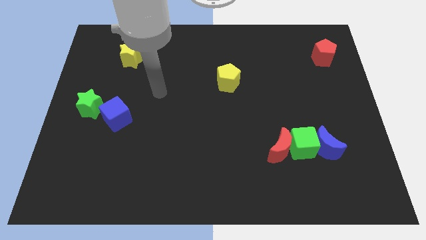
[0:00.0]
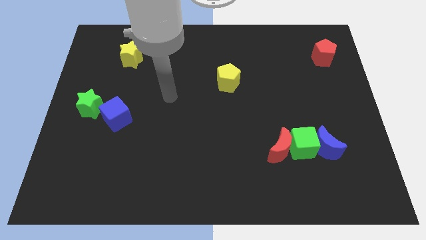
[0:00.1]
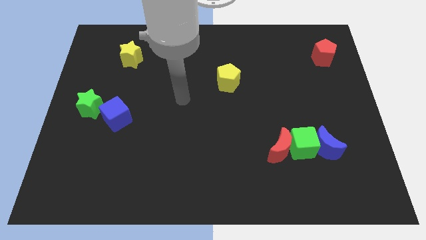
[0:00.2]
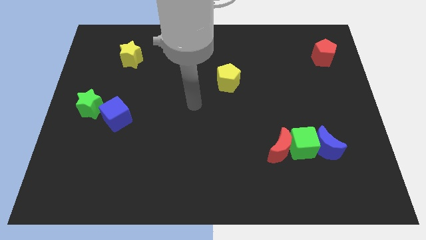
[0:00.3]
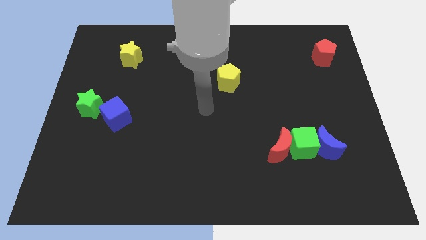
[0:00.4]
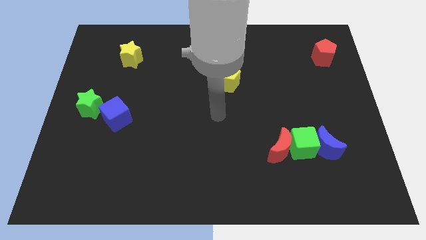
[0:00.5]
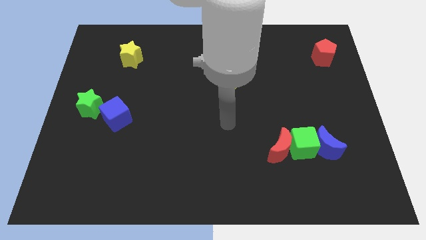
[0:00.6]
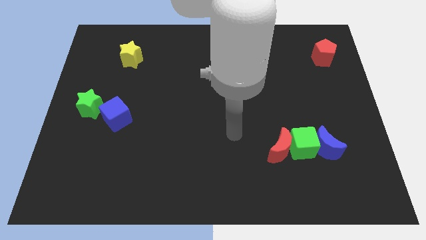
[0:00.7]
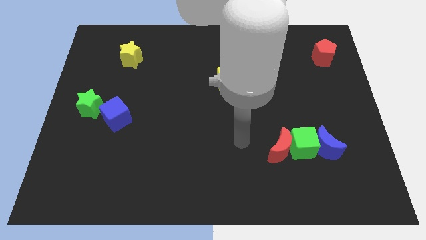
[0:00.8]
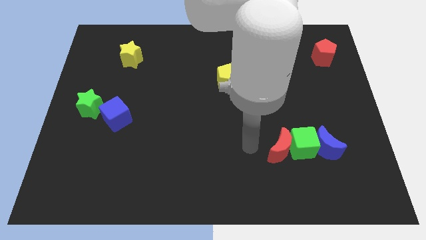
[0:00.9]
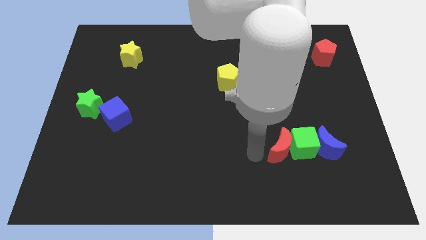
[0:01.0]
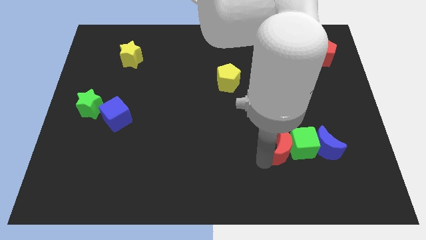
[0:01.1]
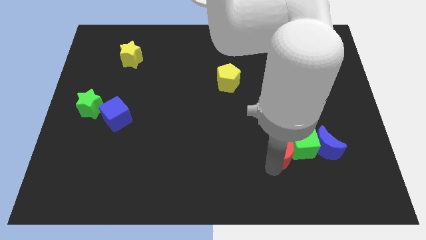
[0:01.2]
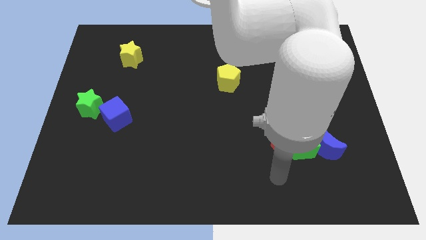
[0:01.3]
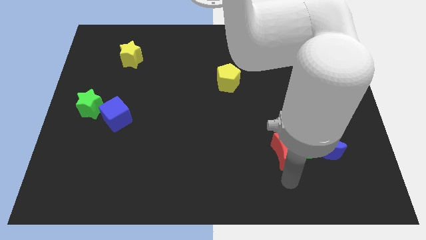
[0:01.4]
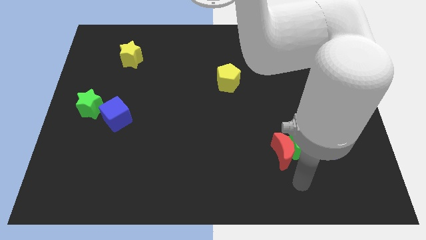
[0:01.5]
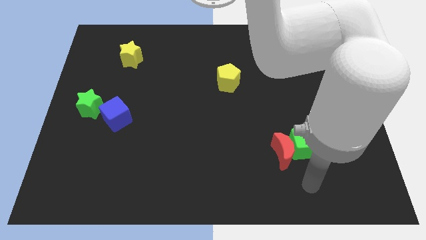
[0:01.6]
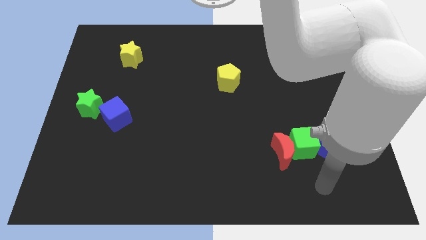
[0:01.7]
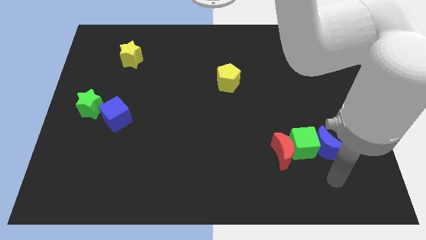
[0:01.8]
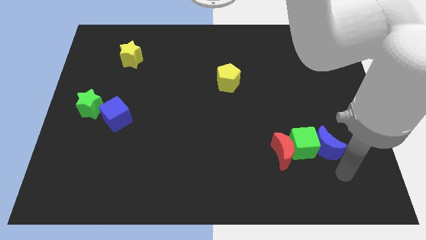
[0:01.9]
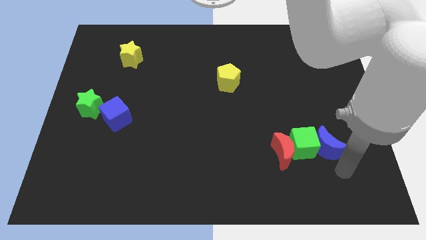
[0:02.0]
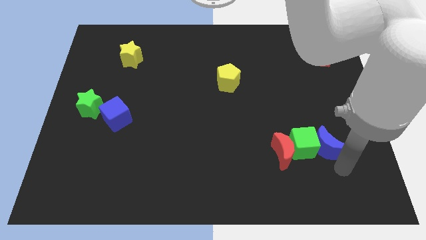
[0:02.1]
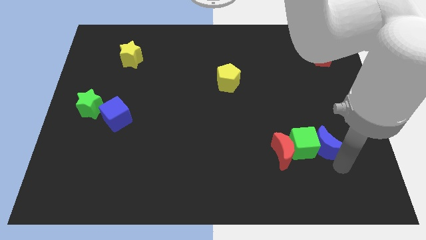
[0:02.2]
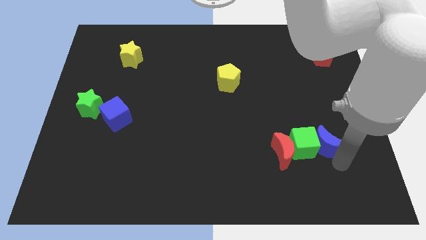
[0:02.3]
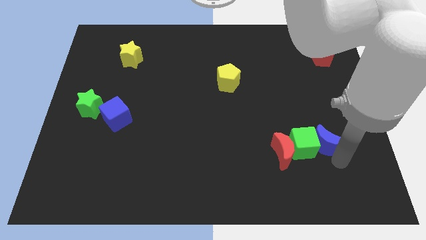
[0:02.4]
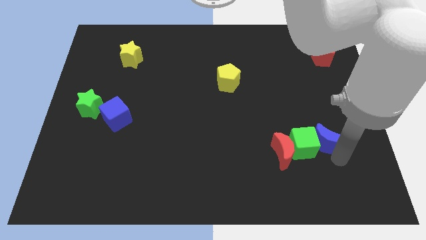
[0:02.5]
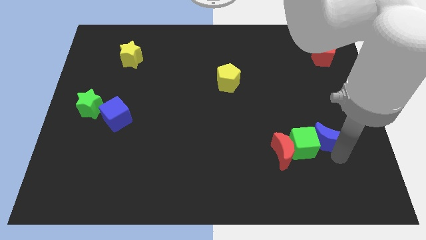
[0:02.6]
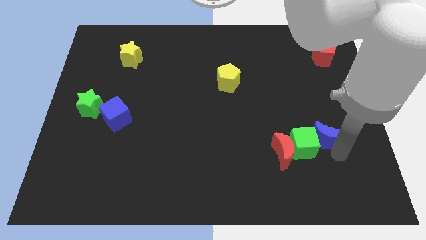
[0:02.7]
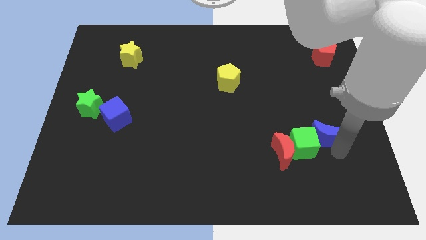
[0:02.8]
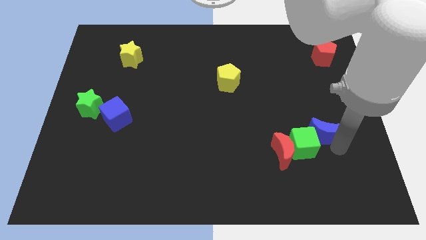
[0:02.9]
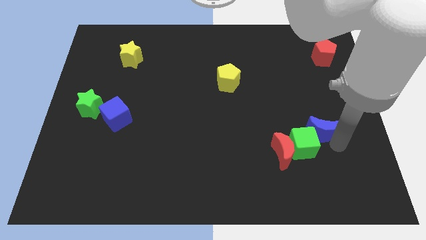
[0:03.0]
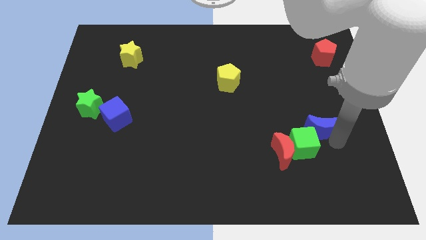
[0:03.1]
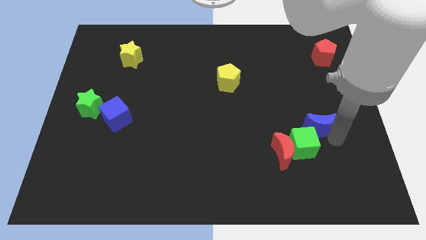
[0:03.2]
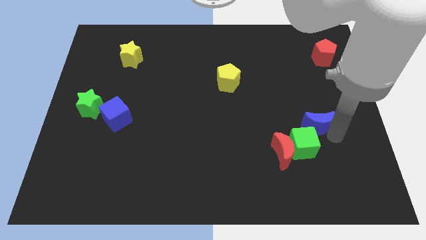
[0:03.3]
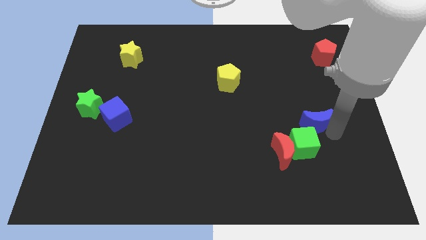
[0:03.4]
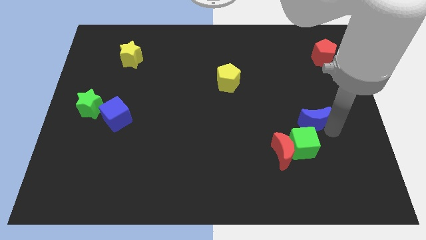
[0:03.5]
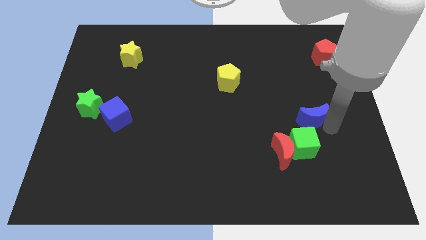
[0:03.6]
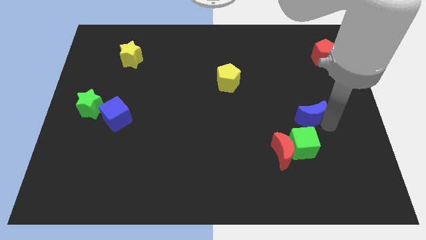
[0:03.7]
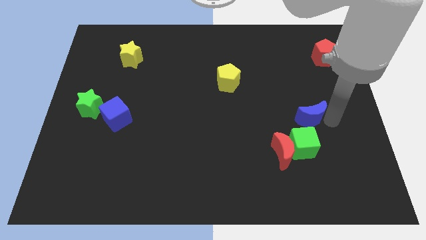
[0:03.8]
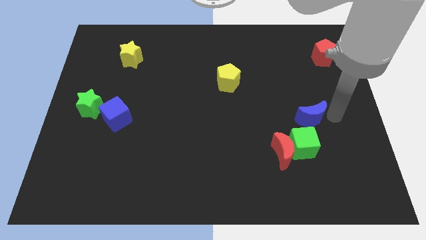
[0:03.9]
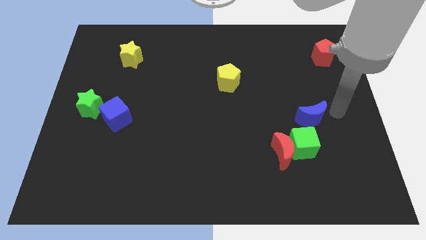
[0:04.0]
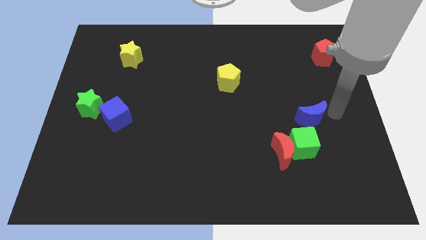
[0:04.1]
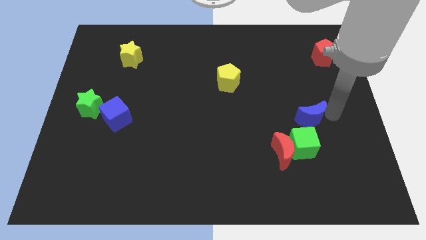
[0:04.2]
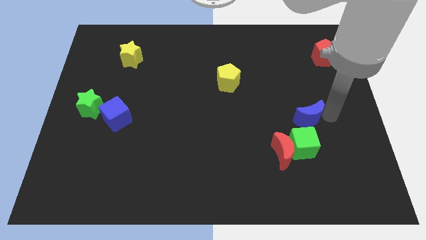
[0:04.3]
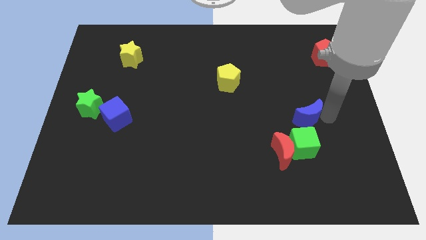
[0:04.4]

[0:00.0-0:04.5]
move the blue moon up and then left a little

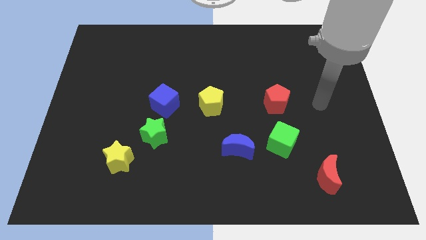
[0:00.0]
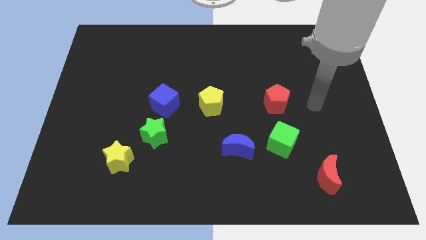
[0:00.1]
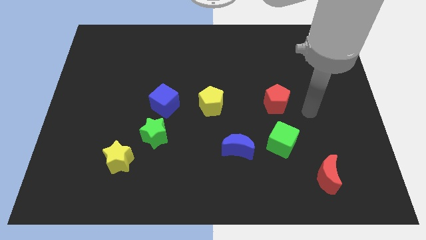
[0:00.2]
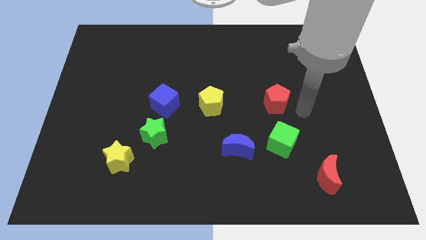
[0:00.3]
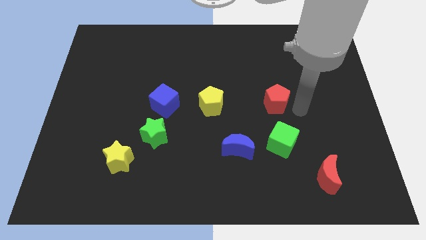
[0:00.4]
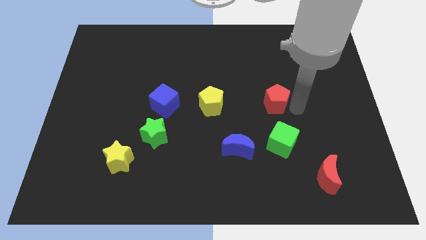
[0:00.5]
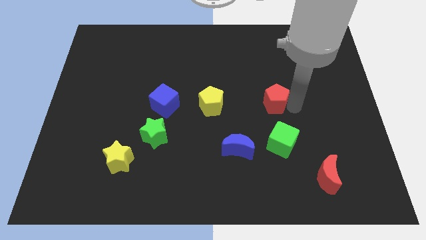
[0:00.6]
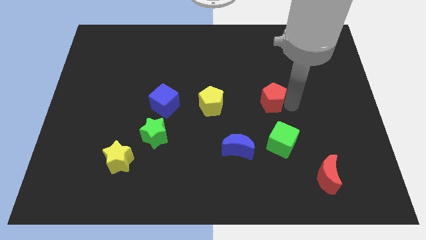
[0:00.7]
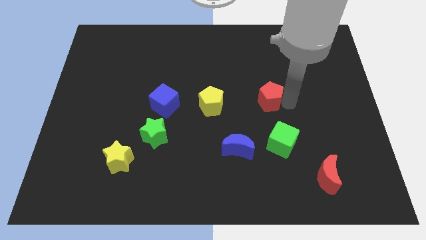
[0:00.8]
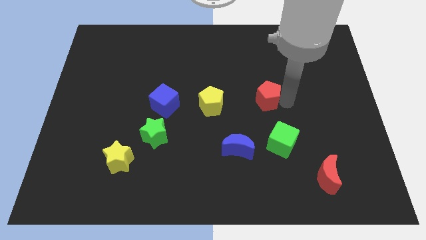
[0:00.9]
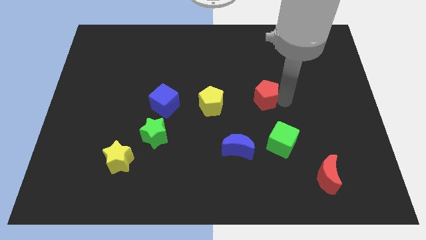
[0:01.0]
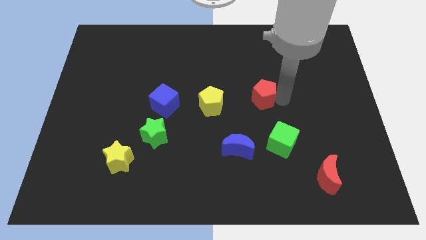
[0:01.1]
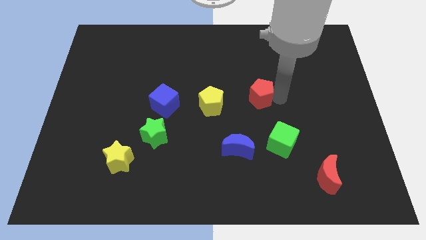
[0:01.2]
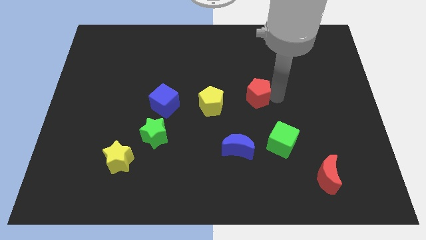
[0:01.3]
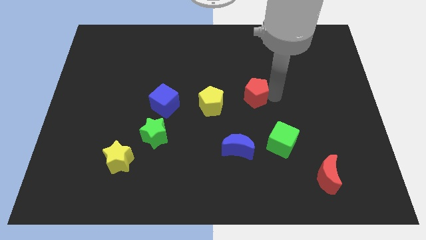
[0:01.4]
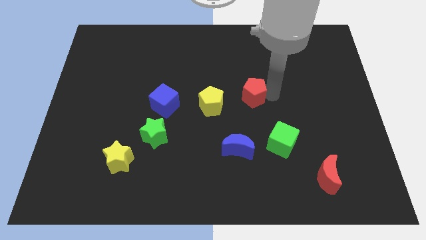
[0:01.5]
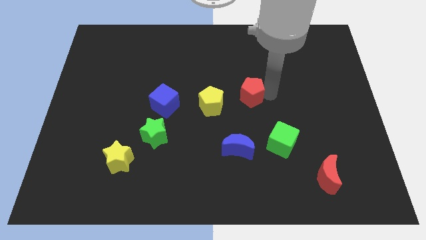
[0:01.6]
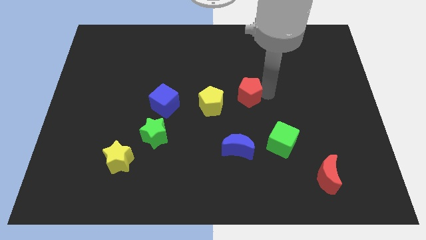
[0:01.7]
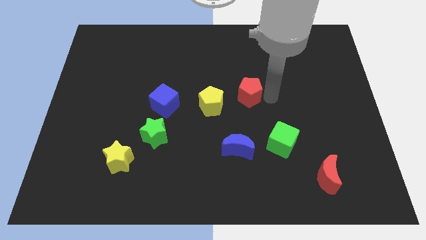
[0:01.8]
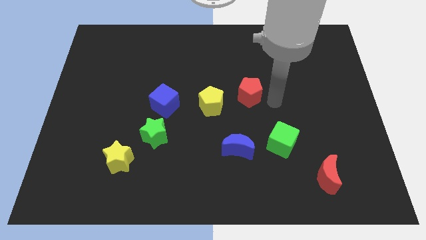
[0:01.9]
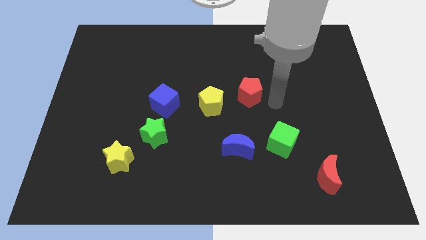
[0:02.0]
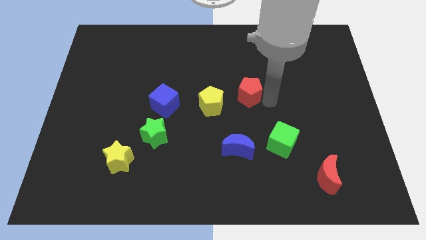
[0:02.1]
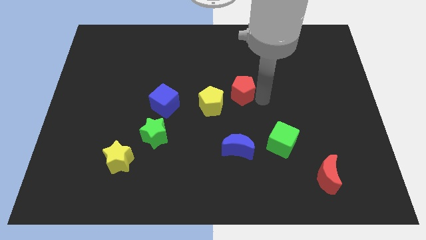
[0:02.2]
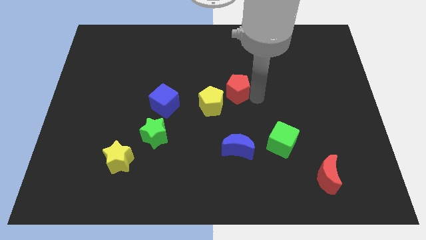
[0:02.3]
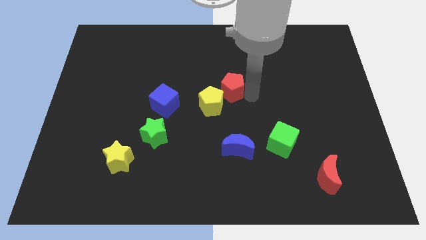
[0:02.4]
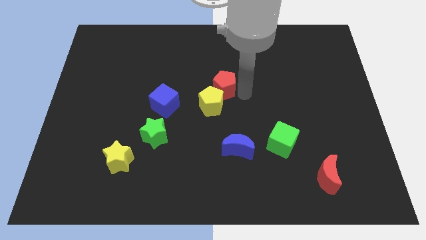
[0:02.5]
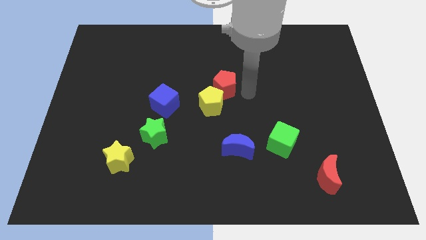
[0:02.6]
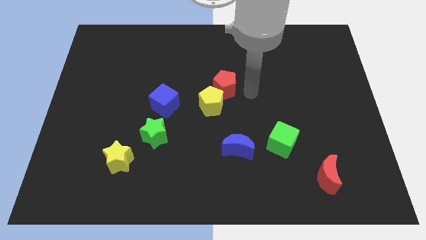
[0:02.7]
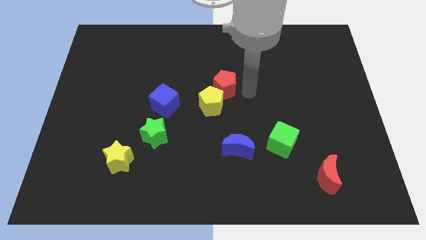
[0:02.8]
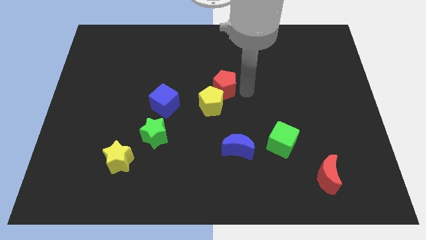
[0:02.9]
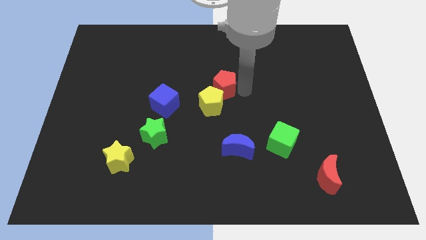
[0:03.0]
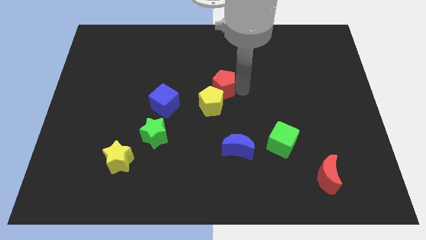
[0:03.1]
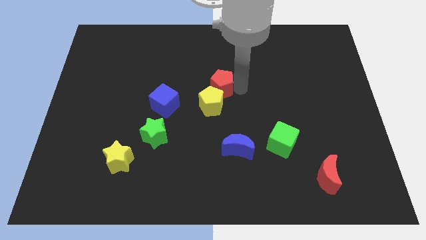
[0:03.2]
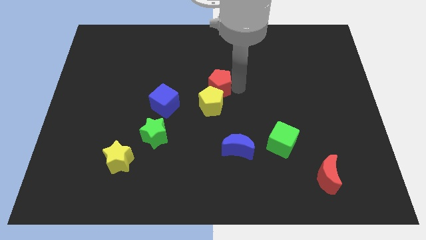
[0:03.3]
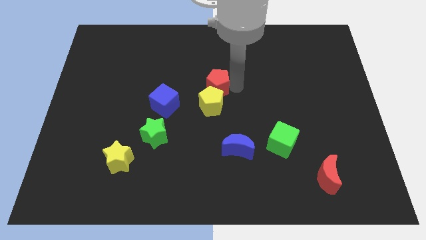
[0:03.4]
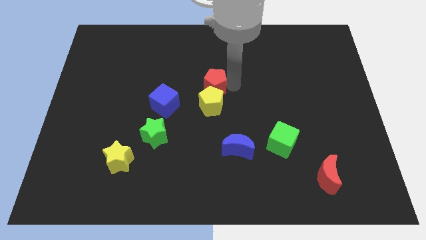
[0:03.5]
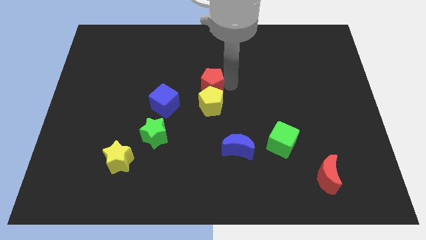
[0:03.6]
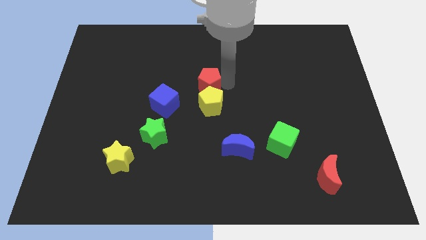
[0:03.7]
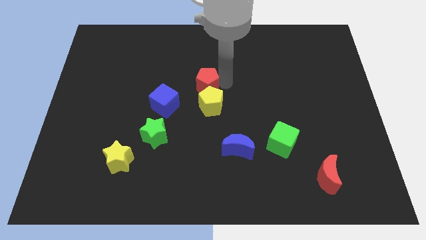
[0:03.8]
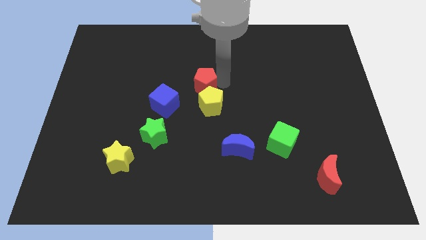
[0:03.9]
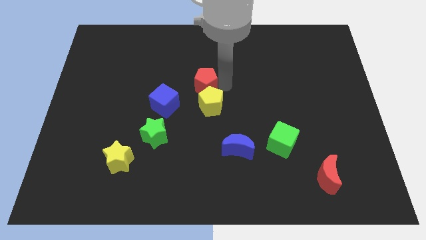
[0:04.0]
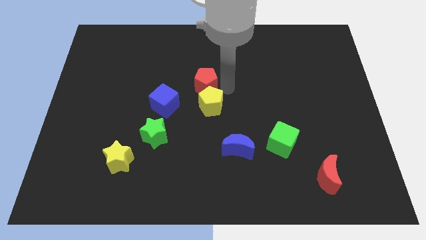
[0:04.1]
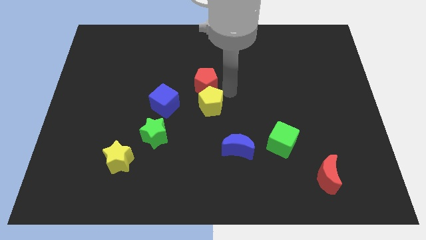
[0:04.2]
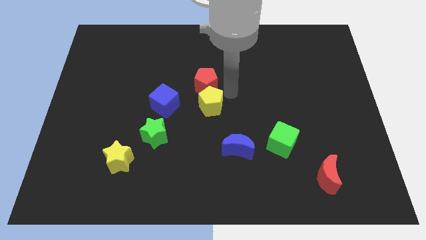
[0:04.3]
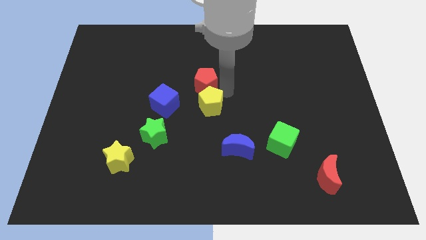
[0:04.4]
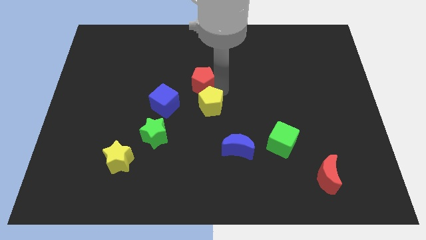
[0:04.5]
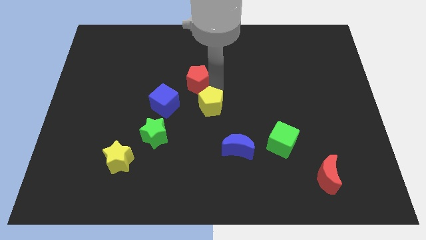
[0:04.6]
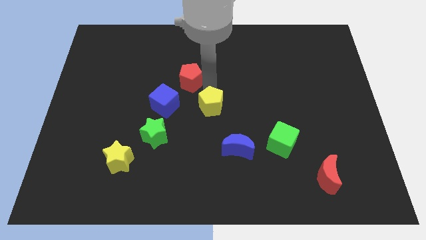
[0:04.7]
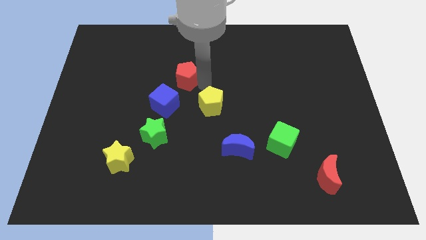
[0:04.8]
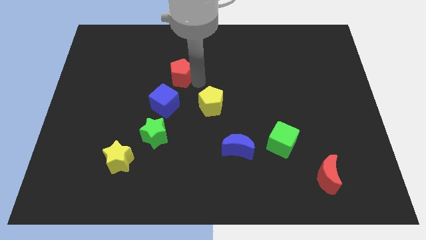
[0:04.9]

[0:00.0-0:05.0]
move the red pentagon left
